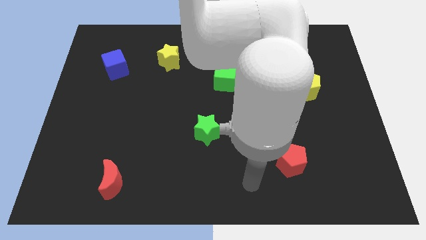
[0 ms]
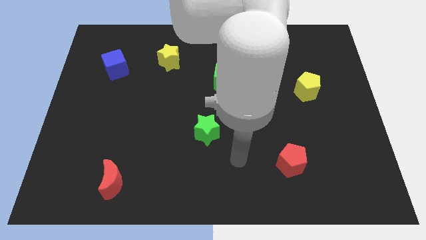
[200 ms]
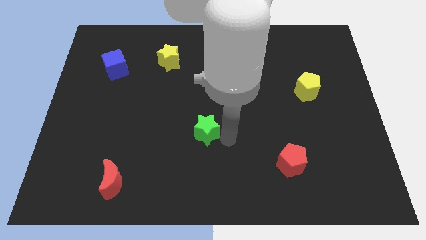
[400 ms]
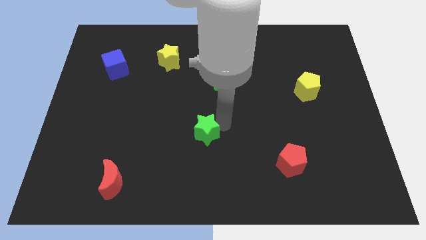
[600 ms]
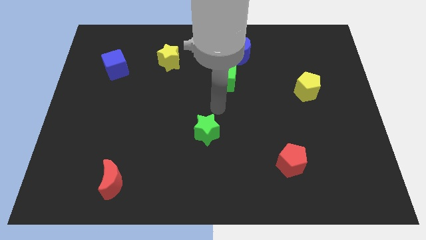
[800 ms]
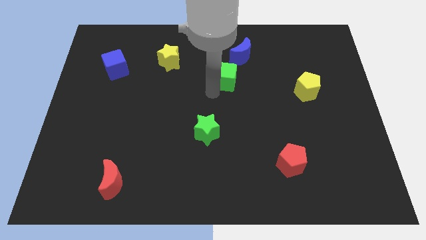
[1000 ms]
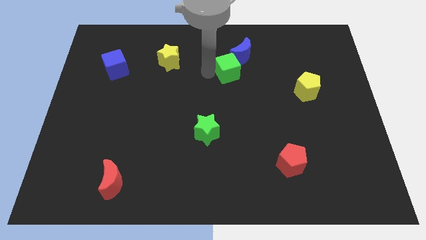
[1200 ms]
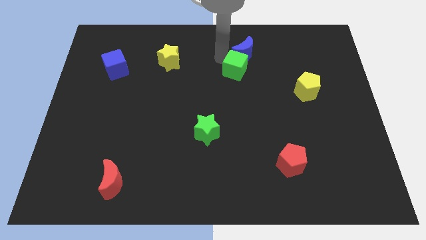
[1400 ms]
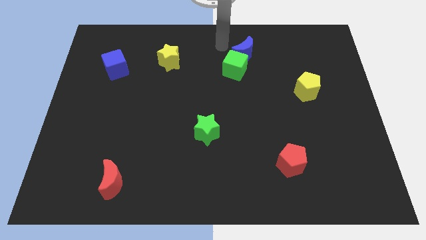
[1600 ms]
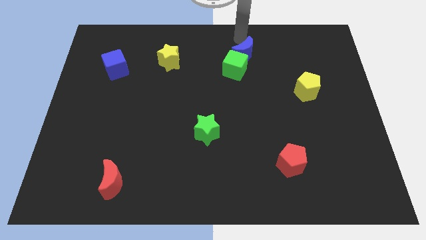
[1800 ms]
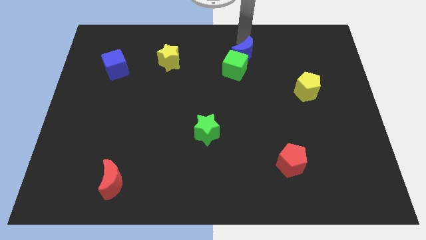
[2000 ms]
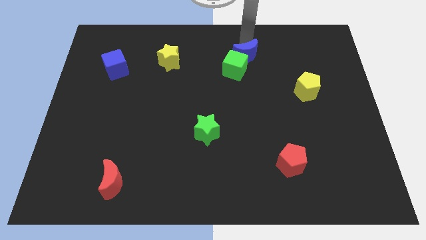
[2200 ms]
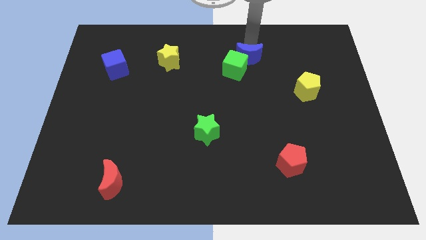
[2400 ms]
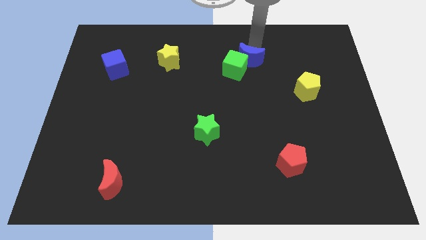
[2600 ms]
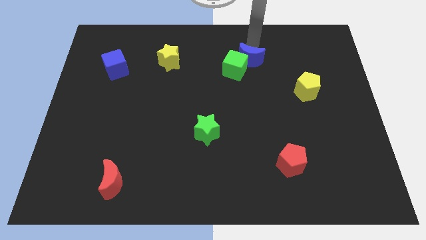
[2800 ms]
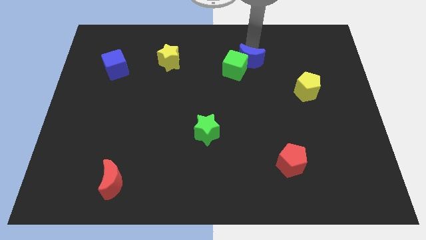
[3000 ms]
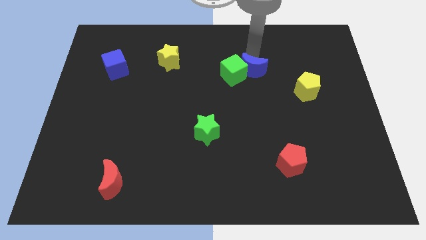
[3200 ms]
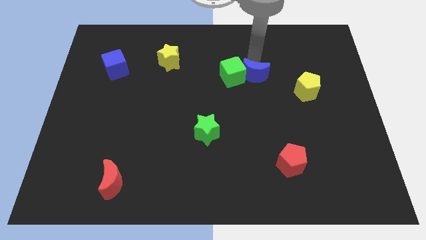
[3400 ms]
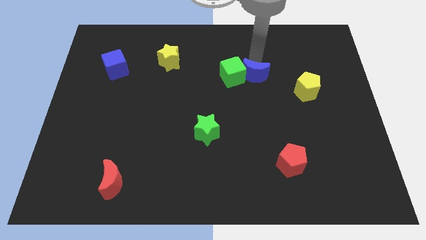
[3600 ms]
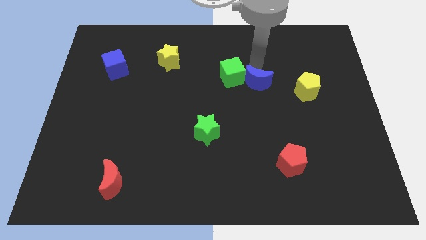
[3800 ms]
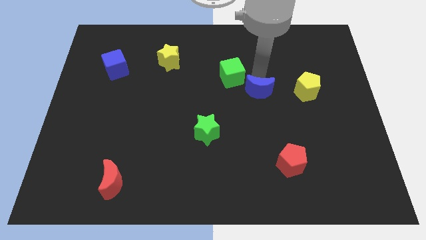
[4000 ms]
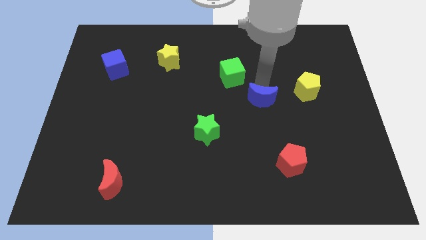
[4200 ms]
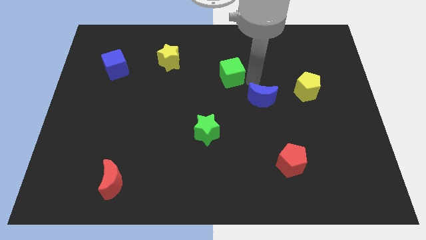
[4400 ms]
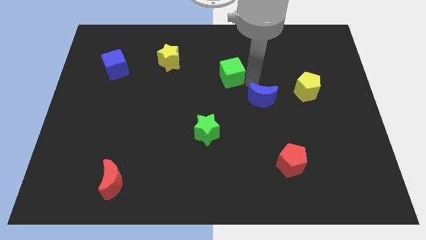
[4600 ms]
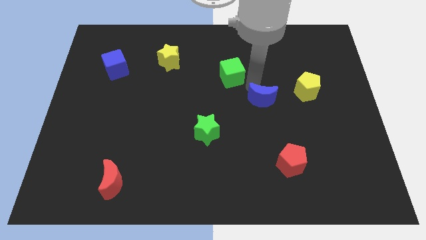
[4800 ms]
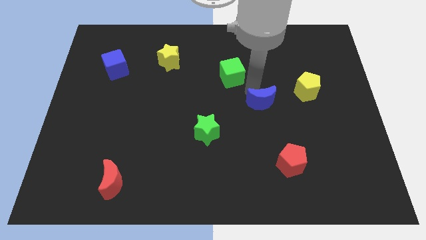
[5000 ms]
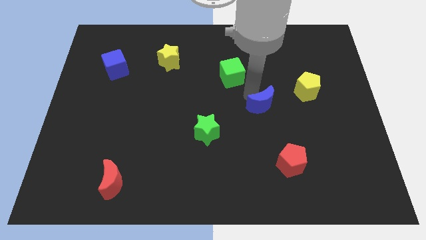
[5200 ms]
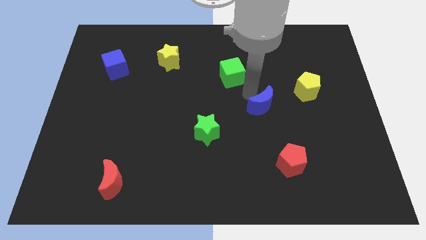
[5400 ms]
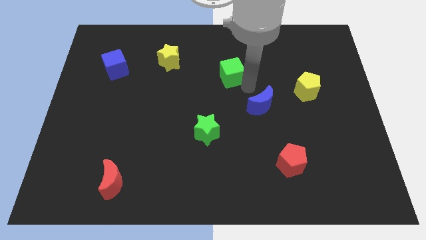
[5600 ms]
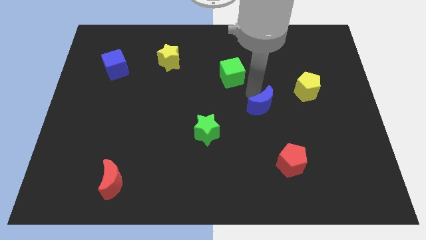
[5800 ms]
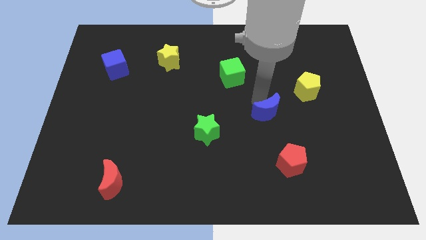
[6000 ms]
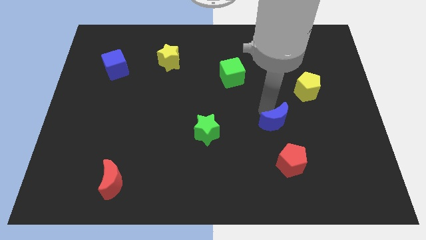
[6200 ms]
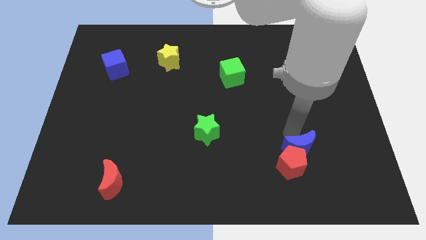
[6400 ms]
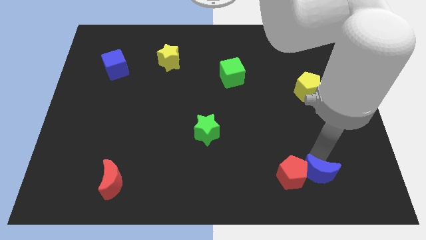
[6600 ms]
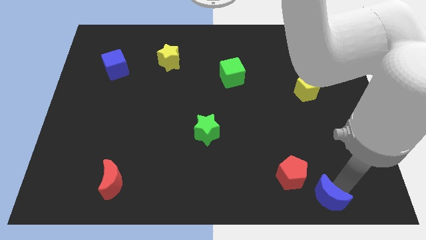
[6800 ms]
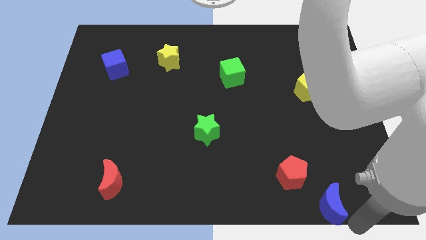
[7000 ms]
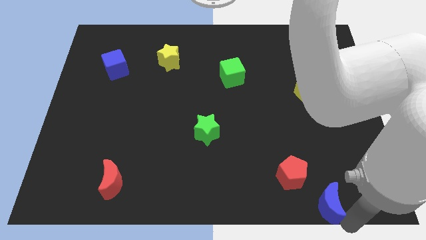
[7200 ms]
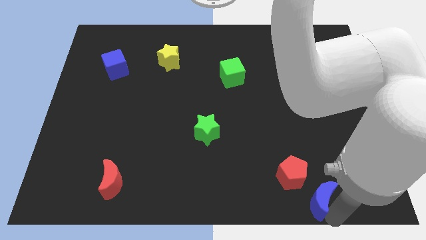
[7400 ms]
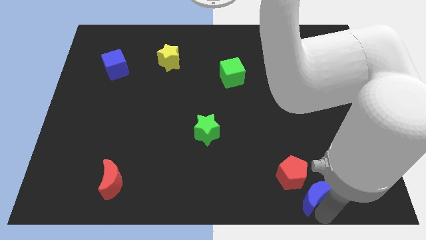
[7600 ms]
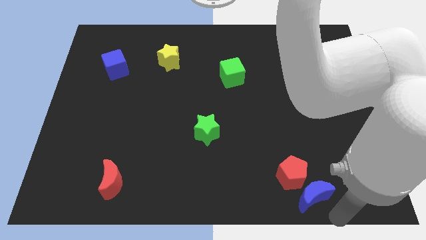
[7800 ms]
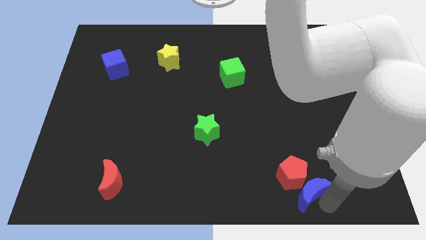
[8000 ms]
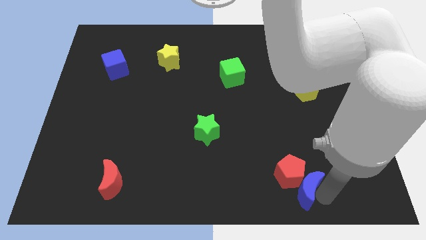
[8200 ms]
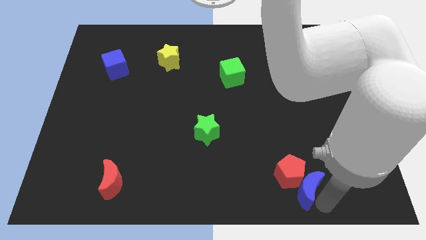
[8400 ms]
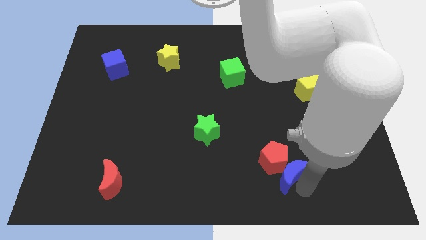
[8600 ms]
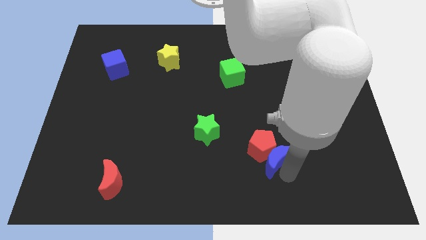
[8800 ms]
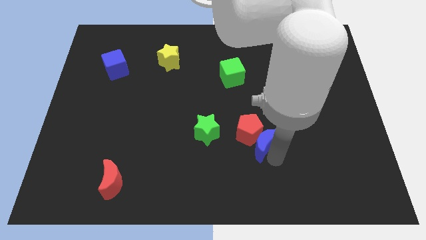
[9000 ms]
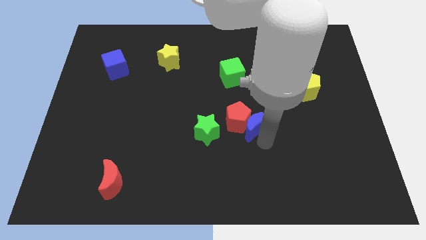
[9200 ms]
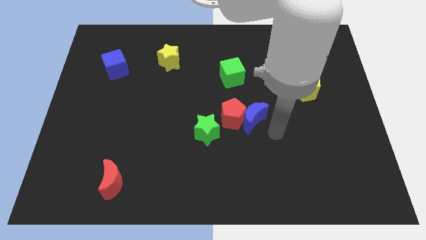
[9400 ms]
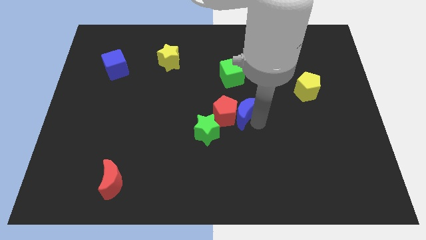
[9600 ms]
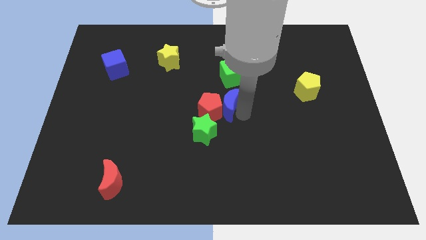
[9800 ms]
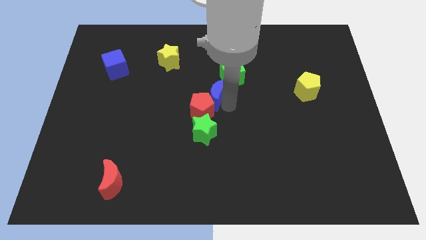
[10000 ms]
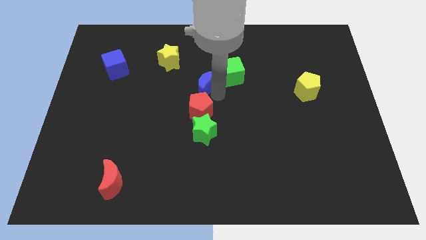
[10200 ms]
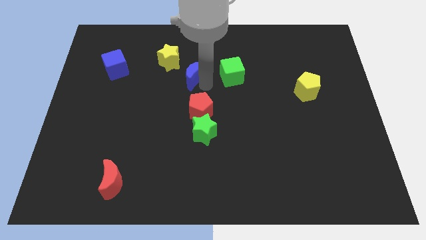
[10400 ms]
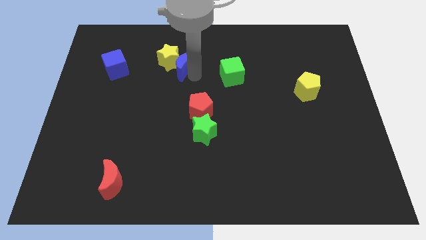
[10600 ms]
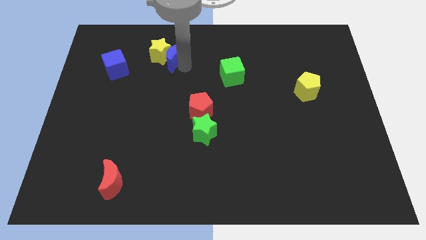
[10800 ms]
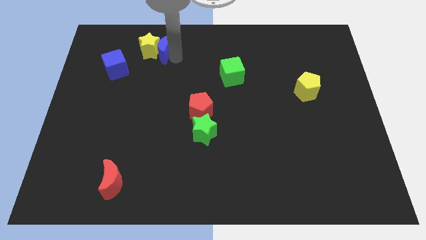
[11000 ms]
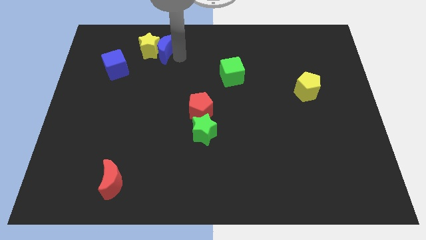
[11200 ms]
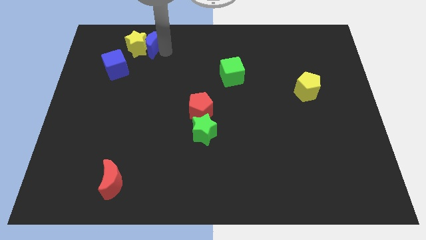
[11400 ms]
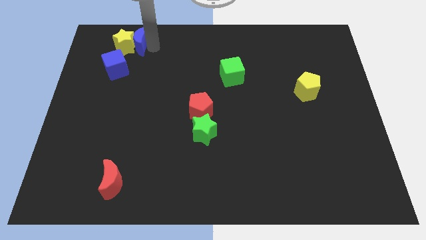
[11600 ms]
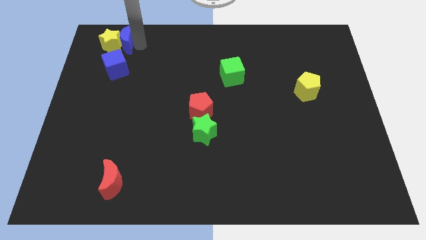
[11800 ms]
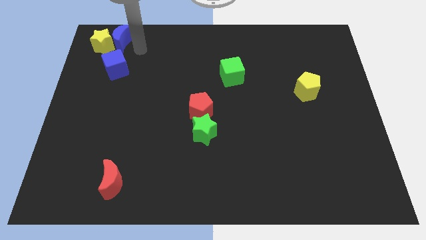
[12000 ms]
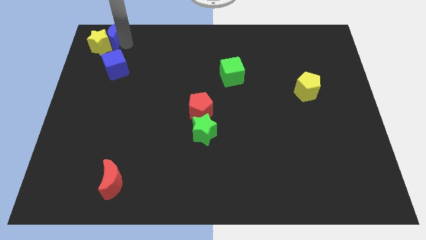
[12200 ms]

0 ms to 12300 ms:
push the blue moon to the top left

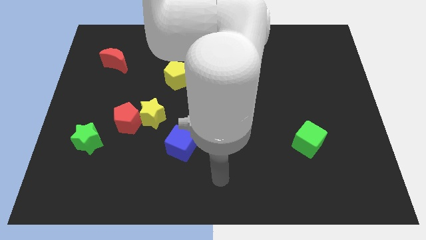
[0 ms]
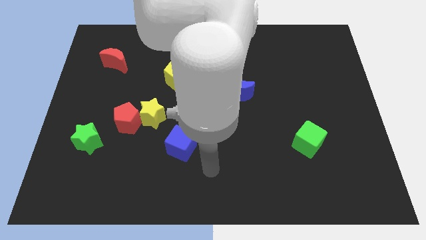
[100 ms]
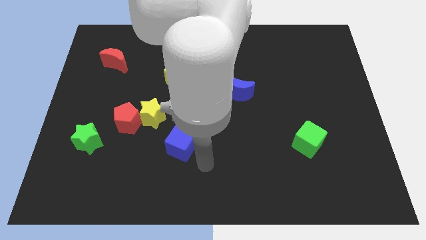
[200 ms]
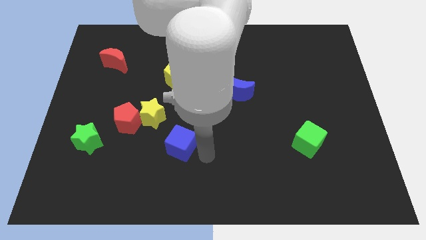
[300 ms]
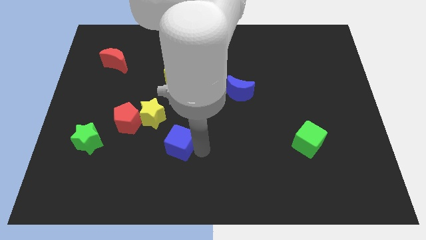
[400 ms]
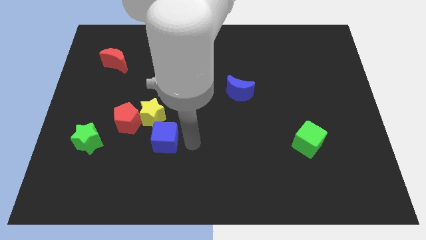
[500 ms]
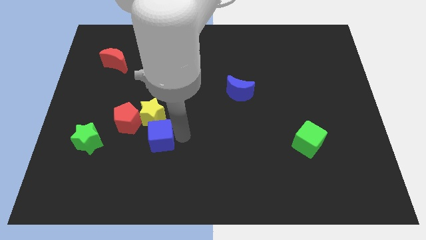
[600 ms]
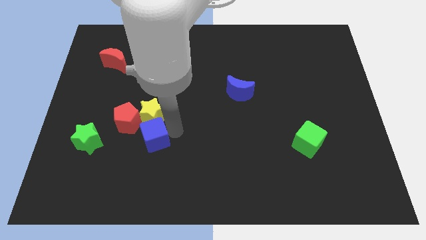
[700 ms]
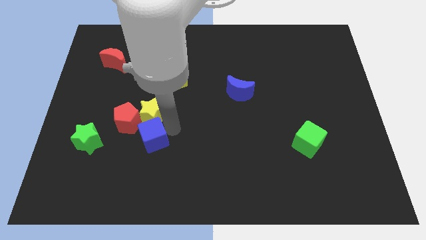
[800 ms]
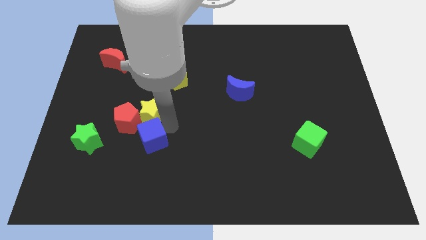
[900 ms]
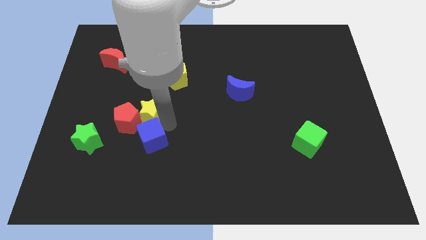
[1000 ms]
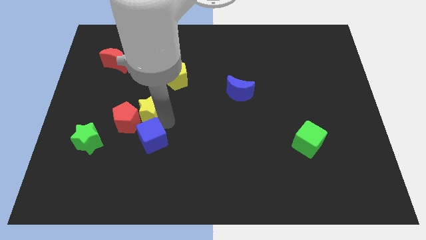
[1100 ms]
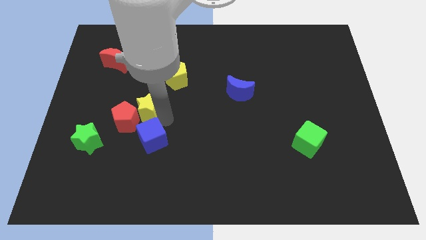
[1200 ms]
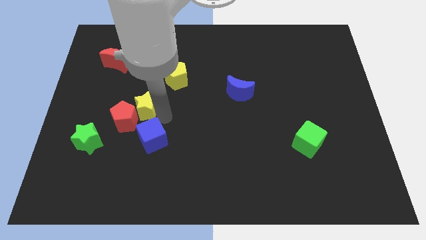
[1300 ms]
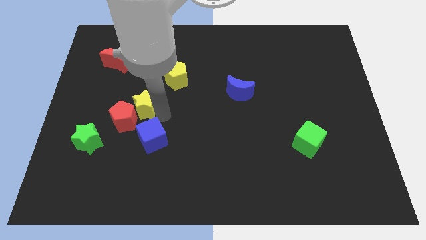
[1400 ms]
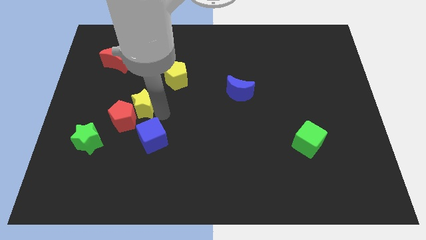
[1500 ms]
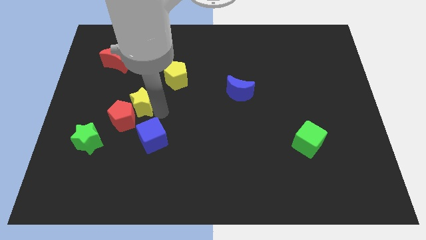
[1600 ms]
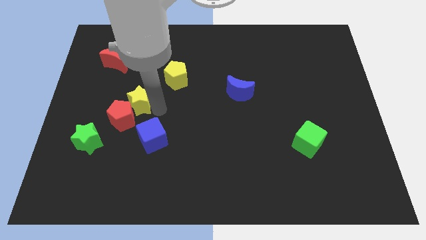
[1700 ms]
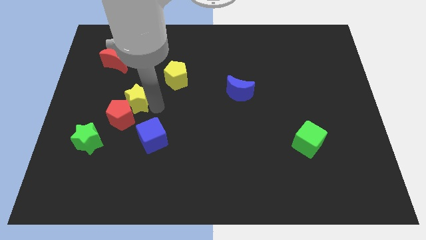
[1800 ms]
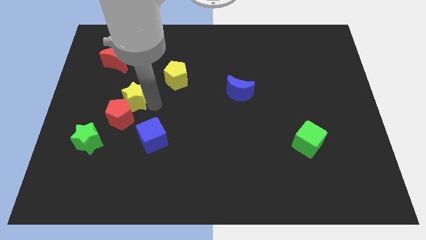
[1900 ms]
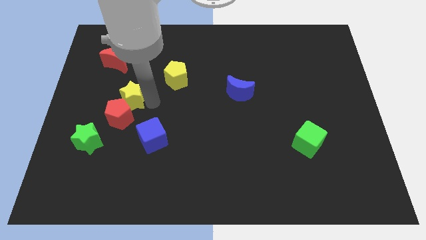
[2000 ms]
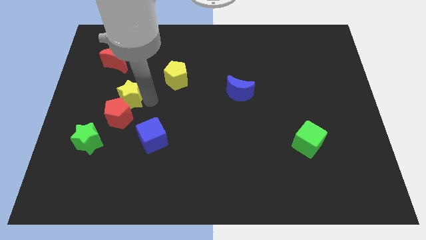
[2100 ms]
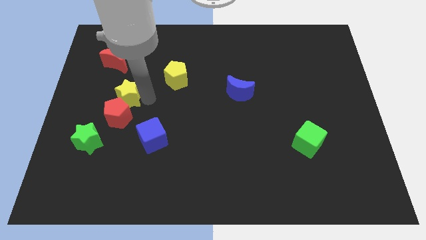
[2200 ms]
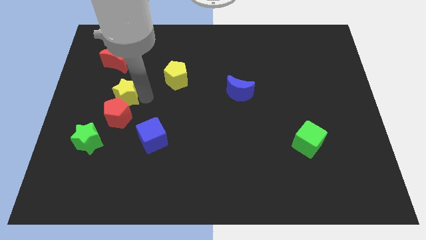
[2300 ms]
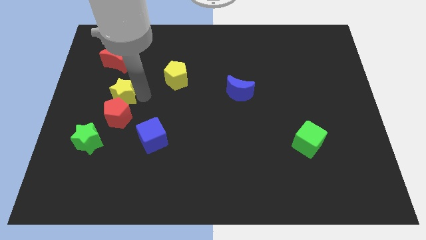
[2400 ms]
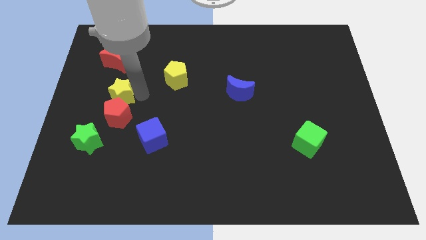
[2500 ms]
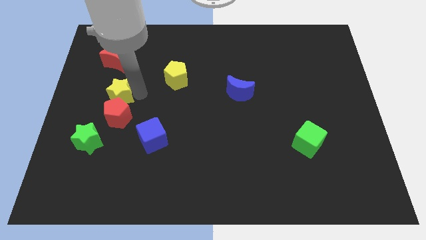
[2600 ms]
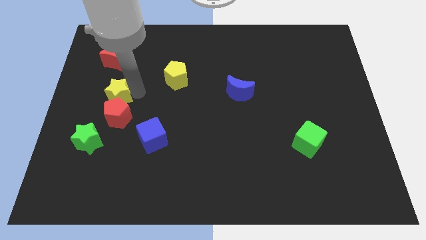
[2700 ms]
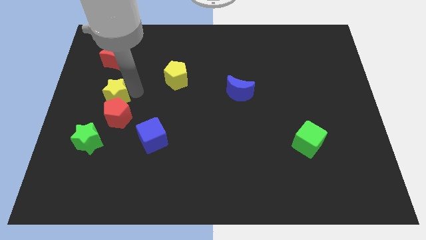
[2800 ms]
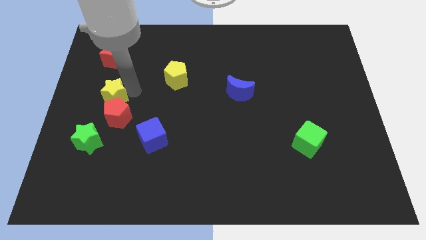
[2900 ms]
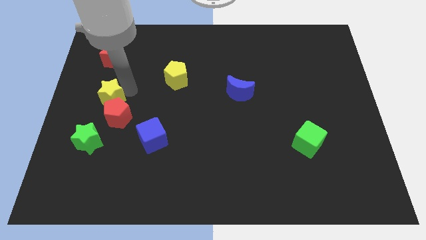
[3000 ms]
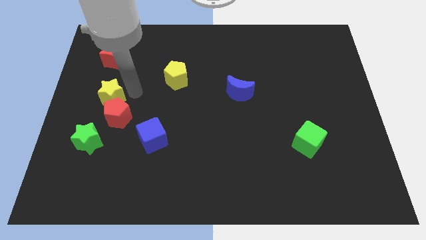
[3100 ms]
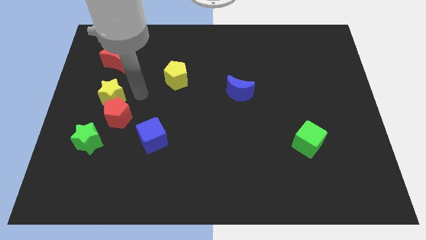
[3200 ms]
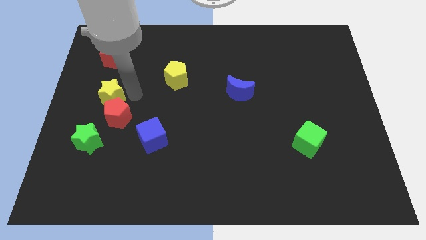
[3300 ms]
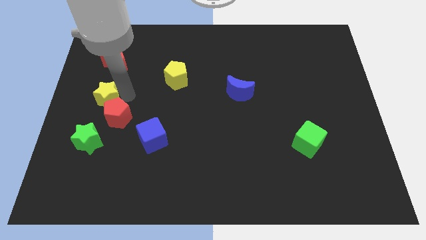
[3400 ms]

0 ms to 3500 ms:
put the yellow star to the left side
